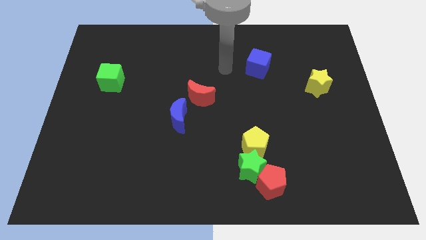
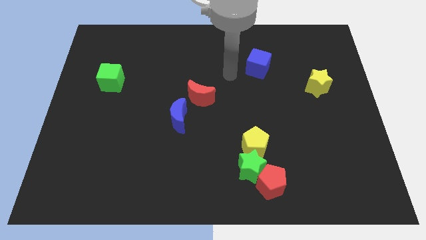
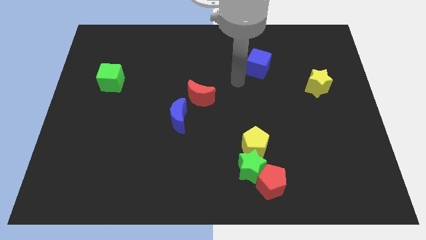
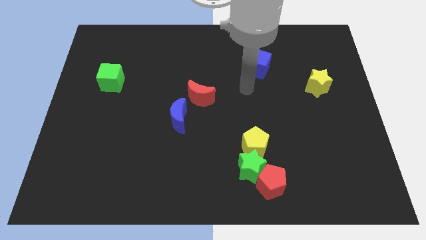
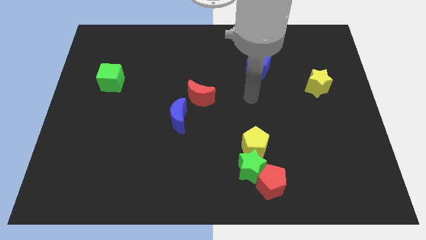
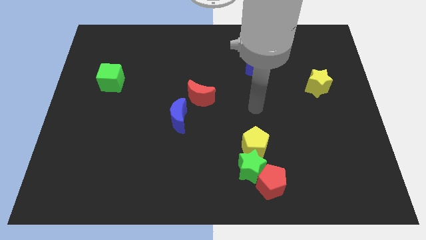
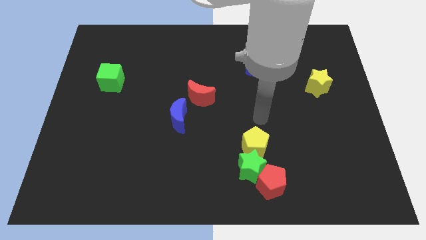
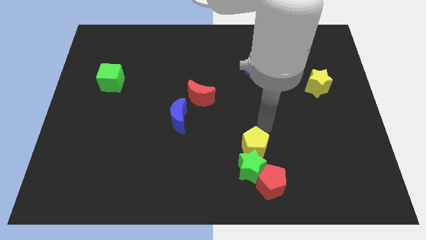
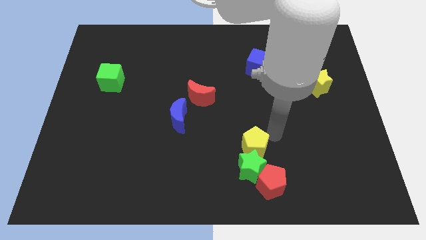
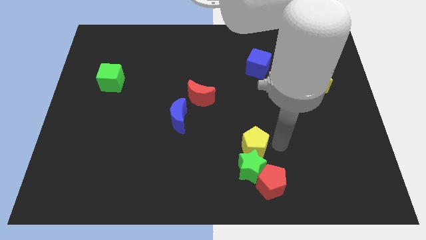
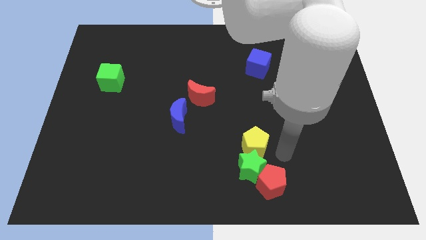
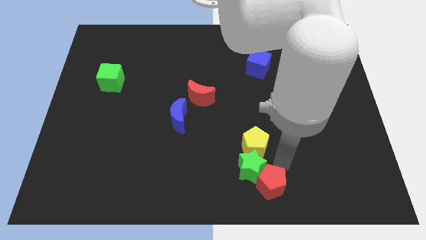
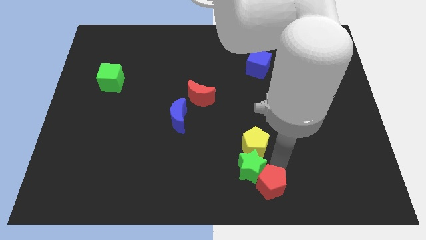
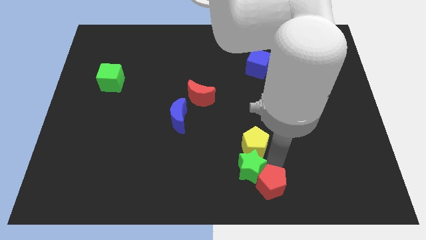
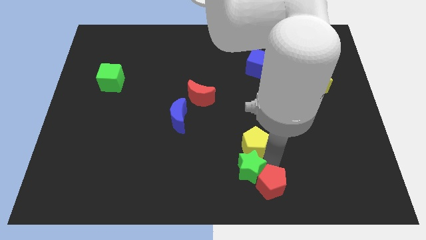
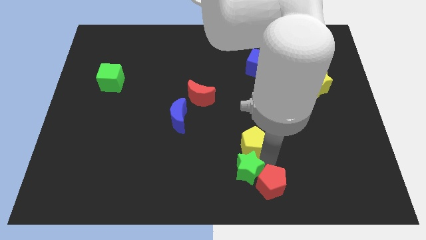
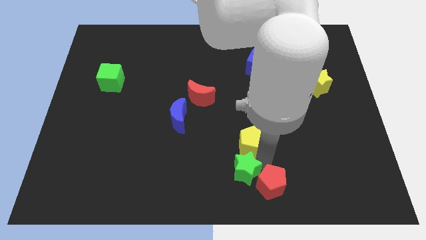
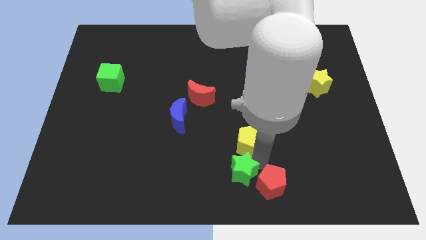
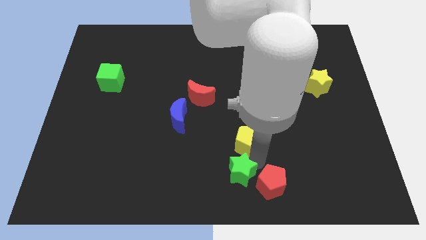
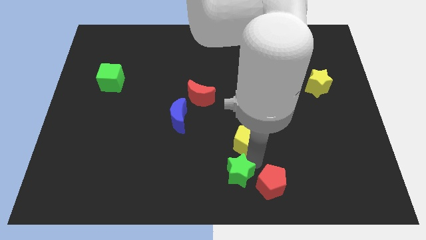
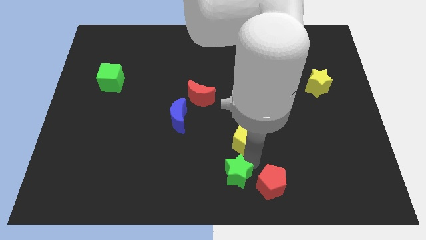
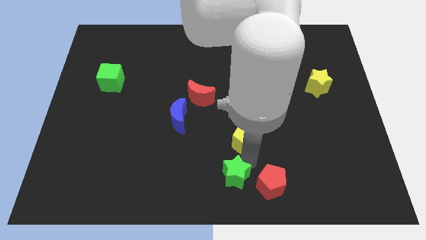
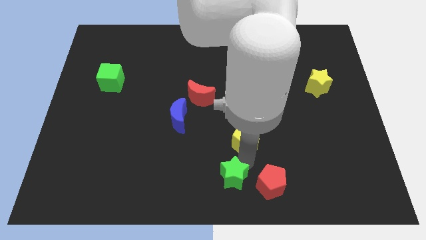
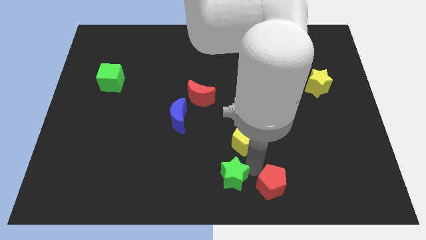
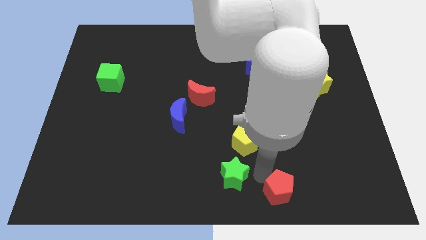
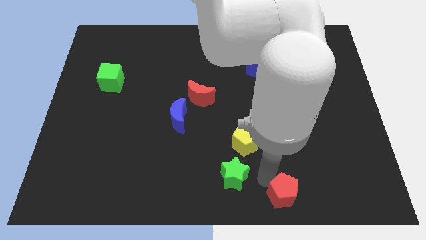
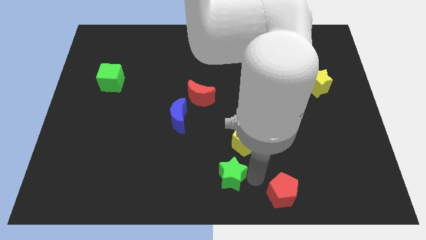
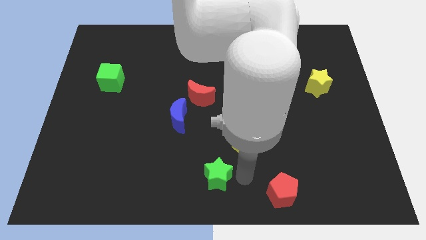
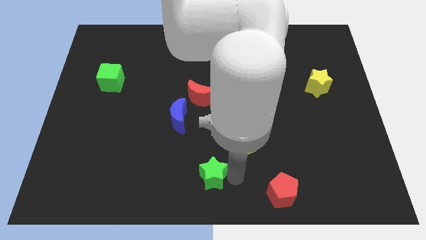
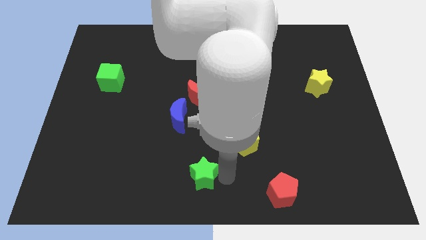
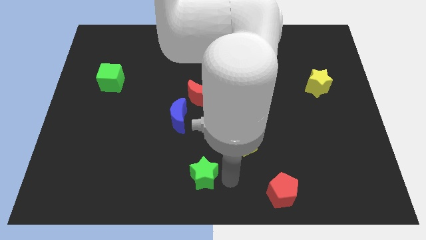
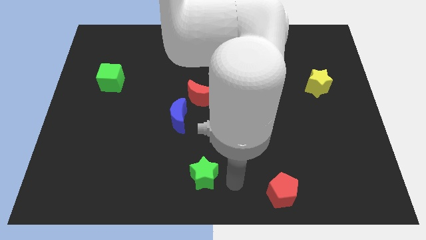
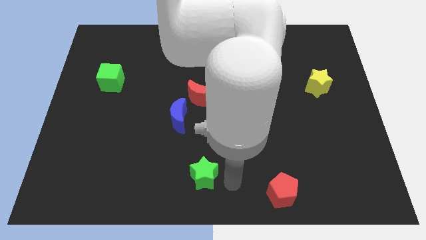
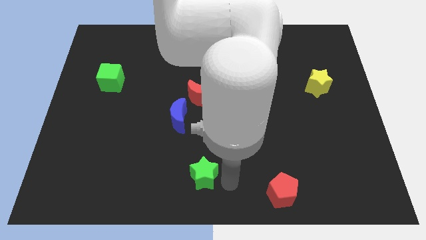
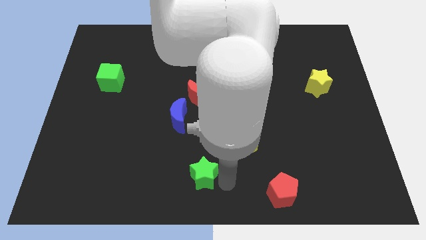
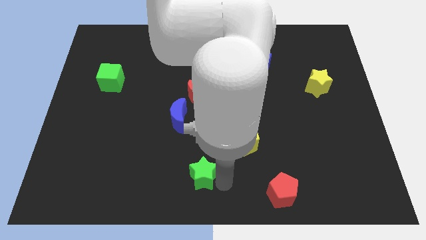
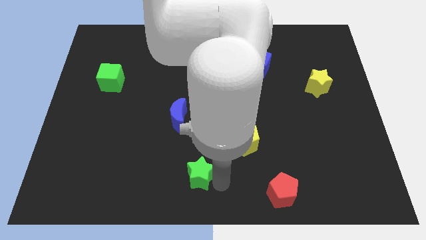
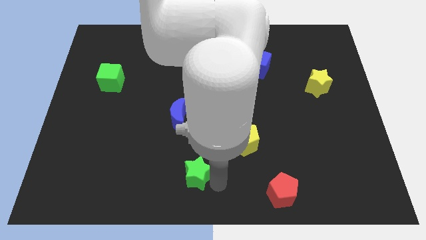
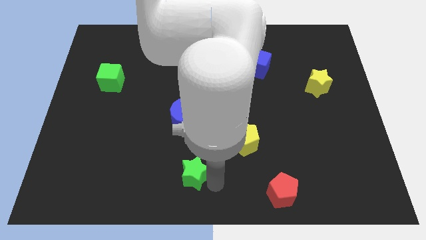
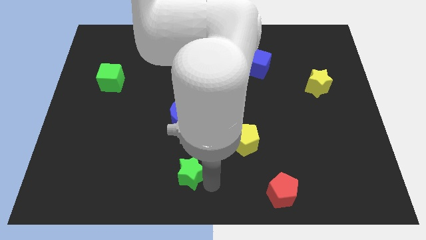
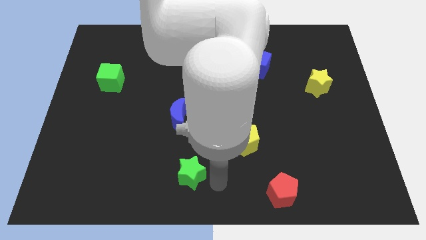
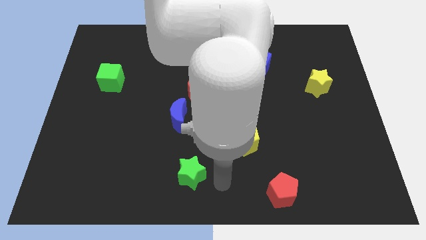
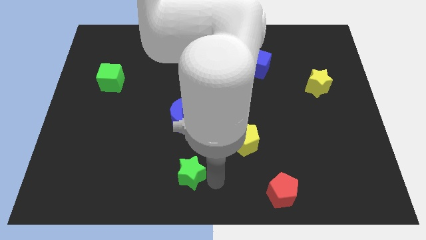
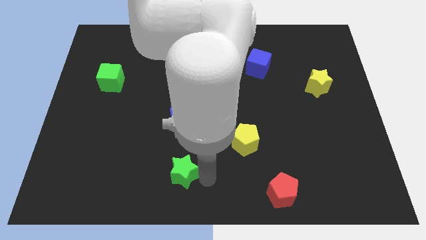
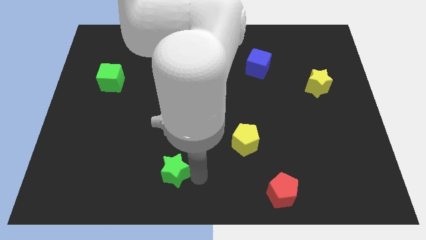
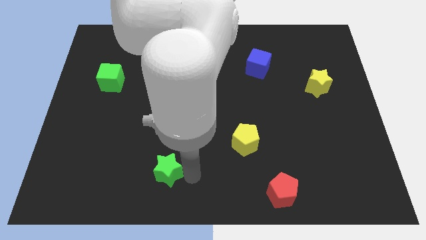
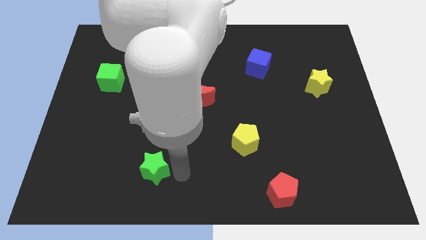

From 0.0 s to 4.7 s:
slide the green star left

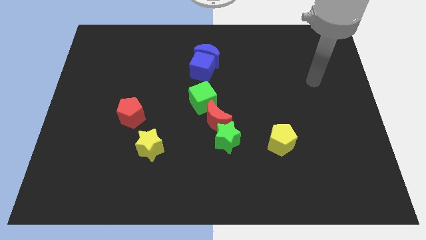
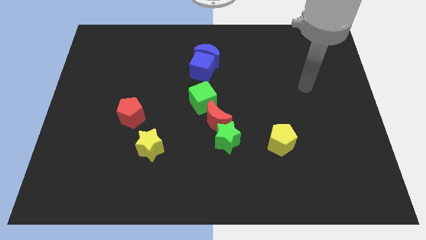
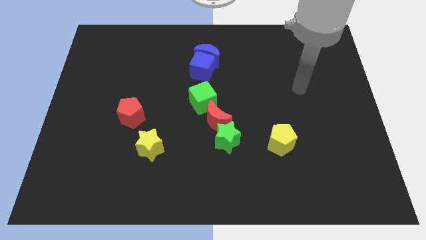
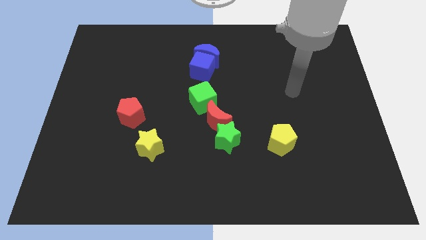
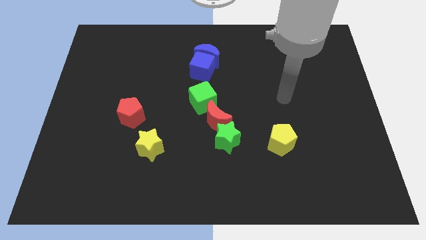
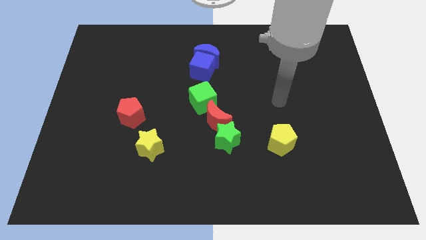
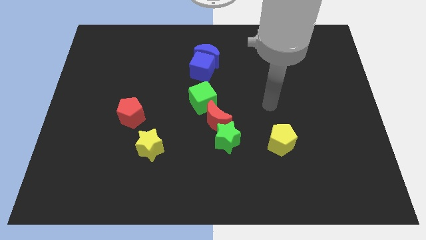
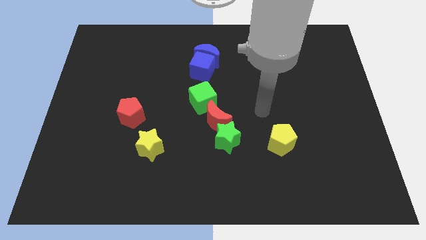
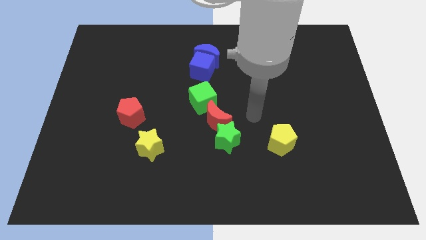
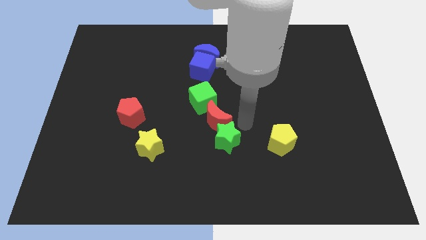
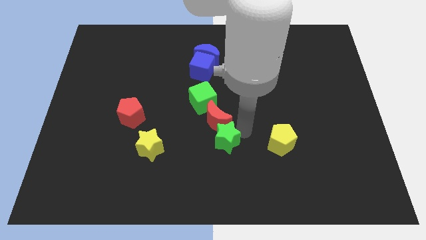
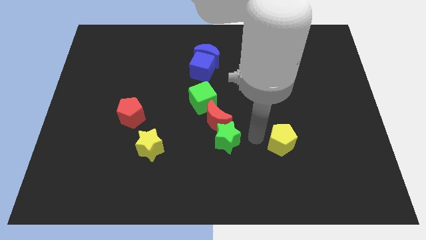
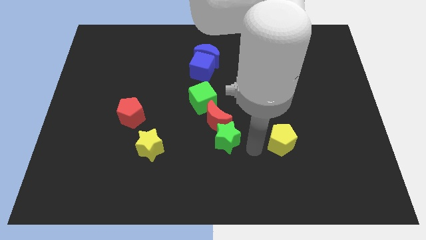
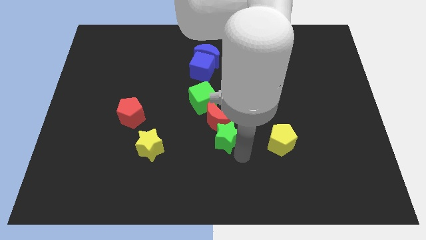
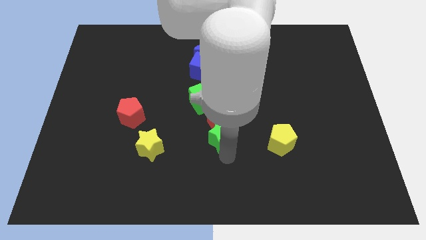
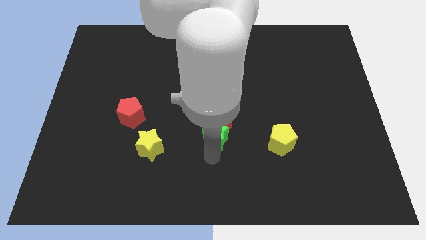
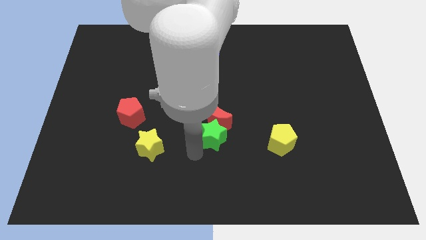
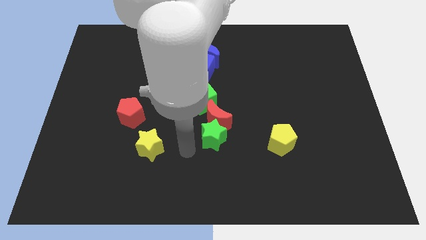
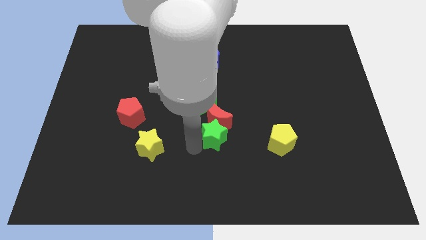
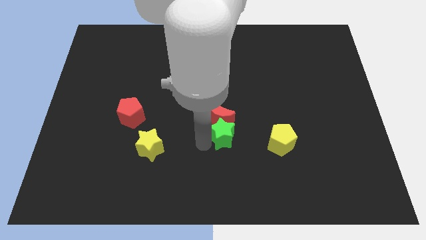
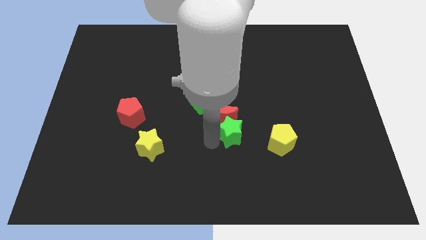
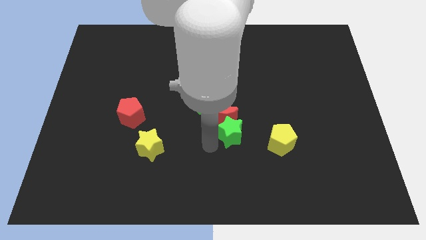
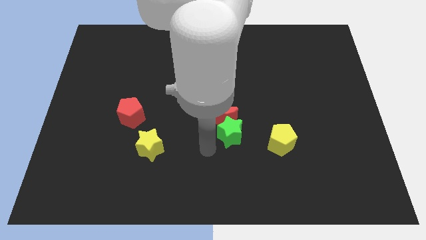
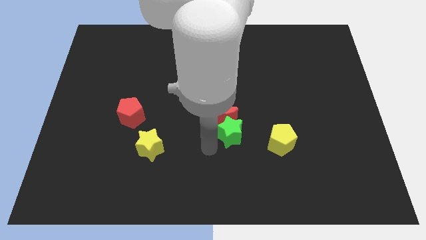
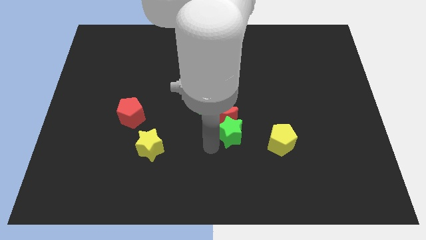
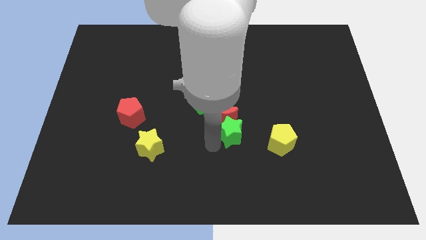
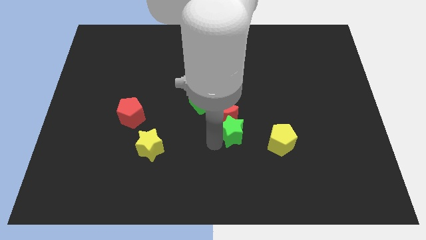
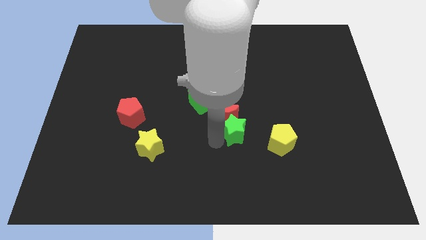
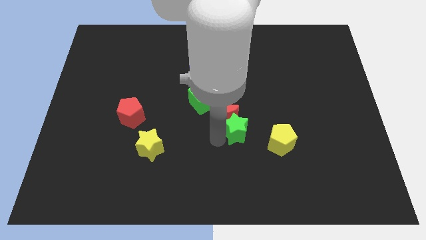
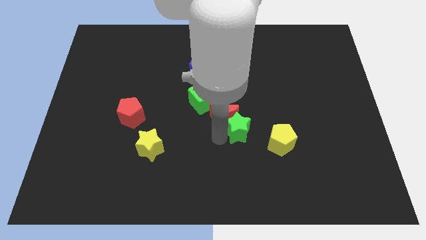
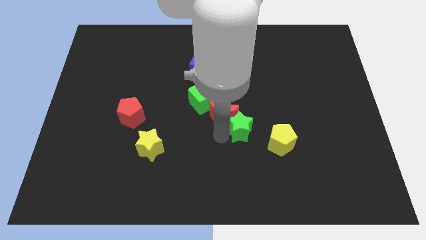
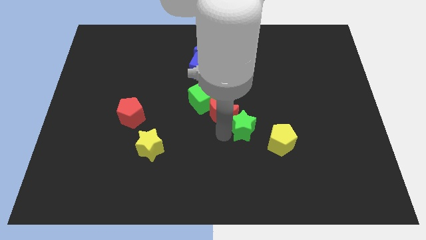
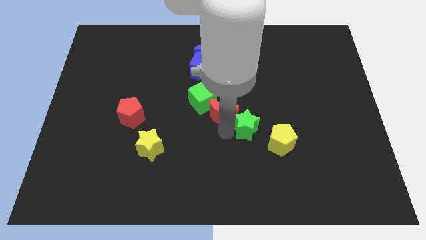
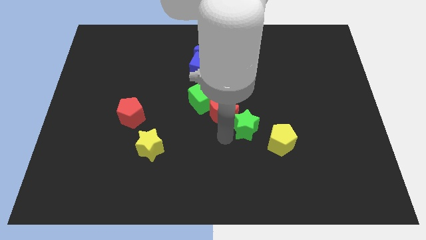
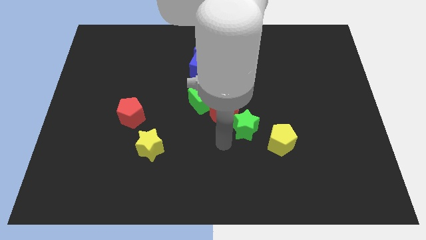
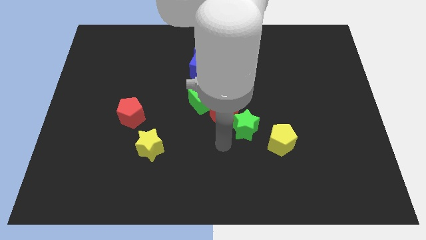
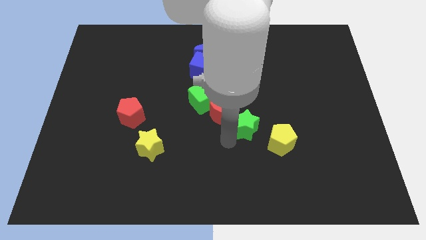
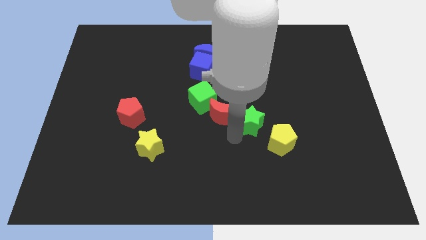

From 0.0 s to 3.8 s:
move the green star up and to the right a little bit
